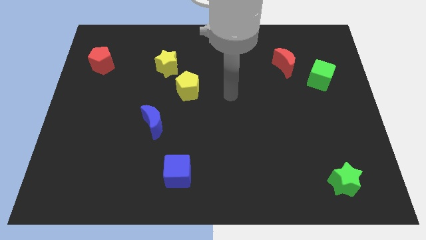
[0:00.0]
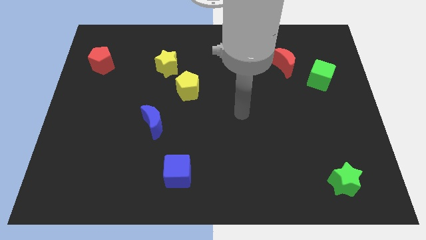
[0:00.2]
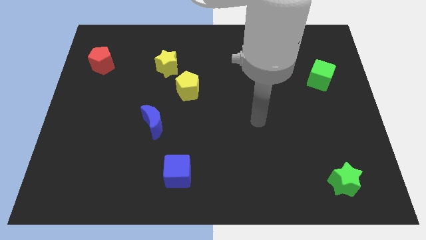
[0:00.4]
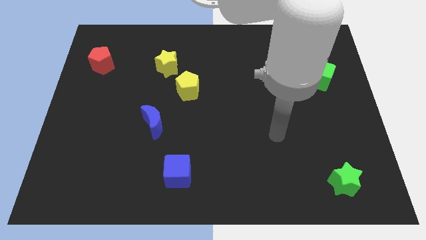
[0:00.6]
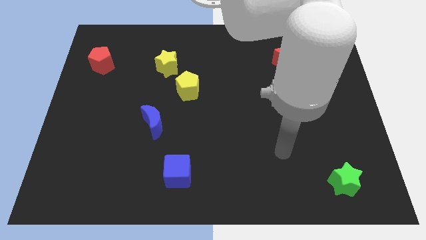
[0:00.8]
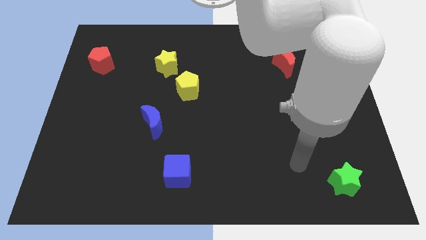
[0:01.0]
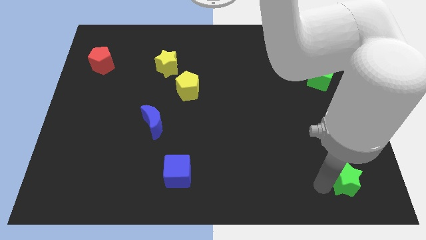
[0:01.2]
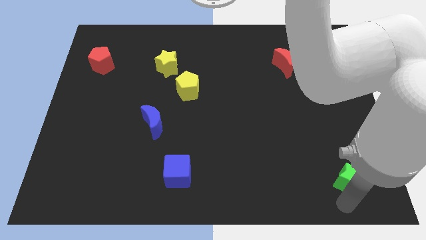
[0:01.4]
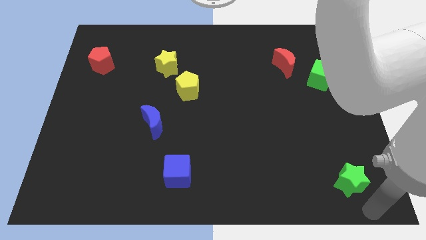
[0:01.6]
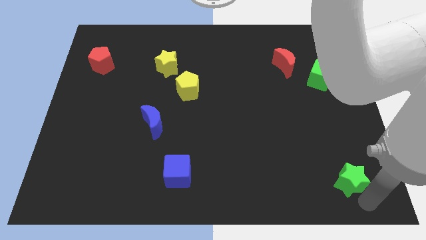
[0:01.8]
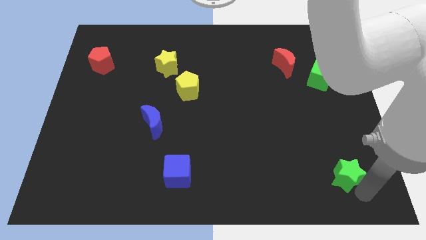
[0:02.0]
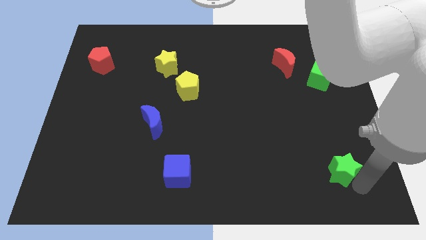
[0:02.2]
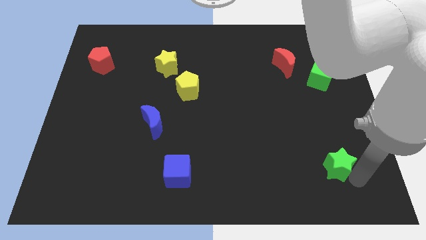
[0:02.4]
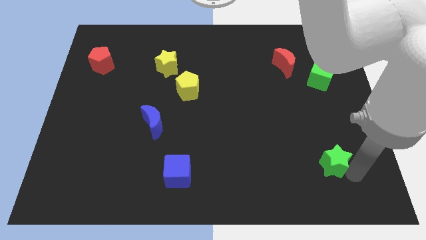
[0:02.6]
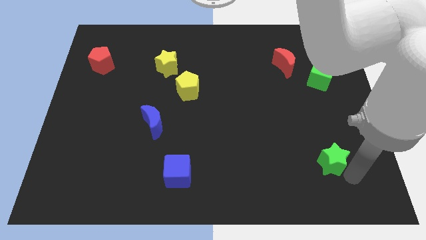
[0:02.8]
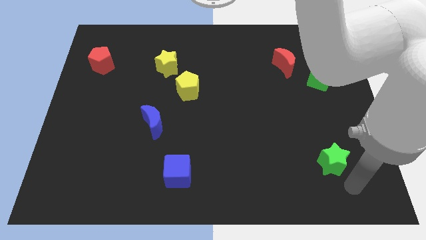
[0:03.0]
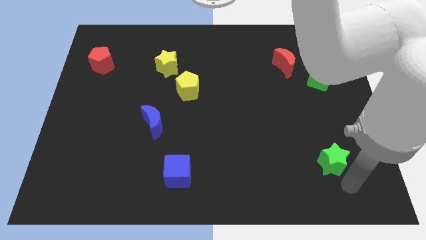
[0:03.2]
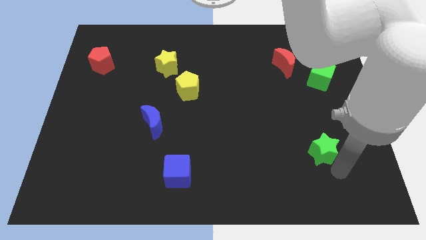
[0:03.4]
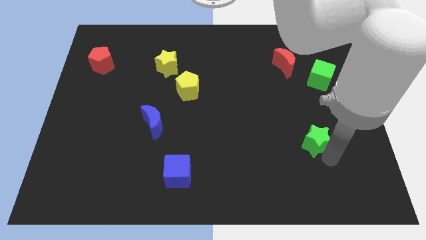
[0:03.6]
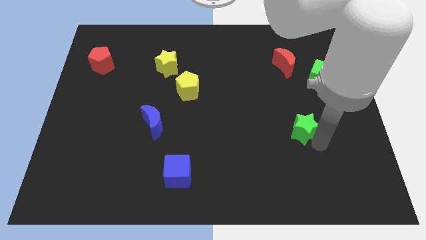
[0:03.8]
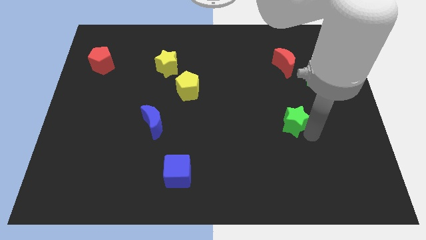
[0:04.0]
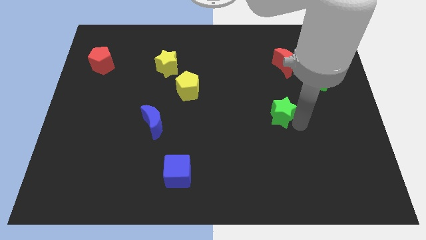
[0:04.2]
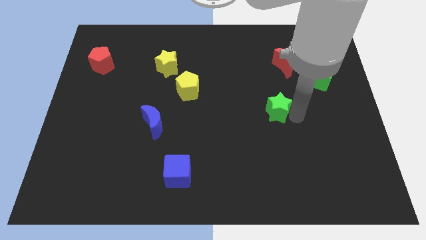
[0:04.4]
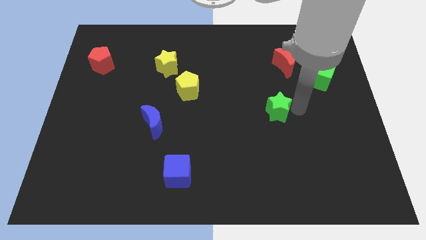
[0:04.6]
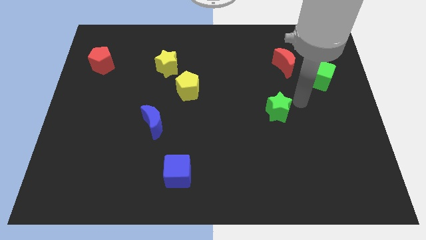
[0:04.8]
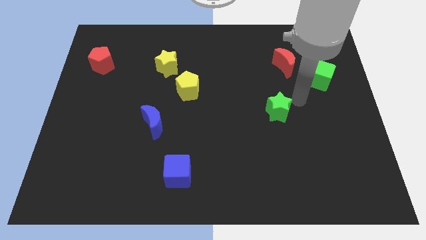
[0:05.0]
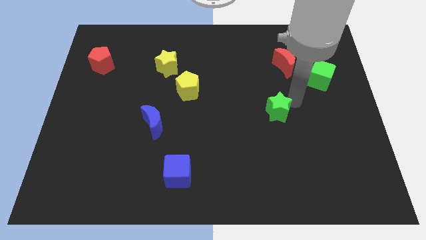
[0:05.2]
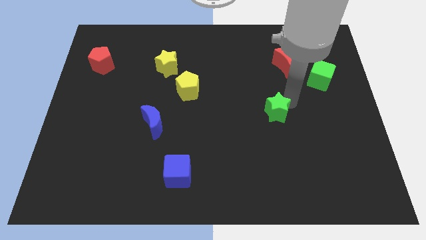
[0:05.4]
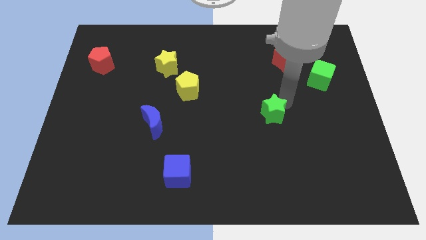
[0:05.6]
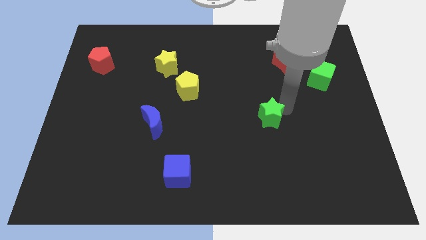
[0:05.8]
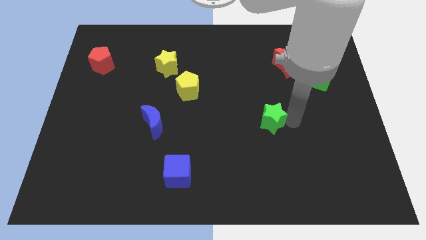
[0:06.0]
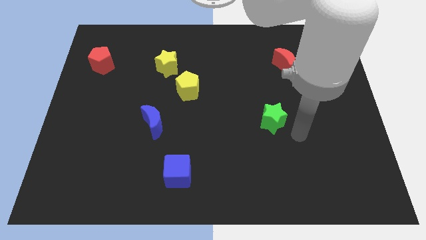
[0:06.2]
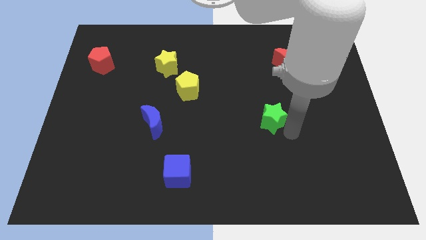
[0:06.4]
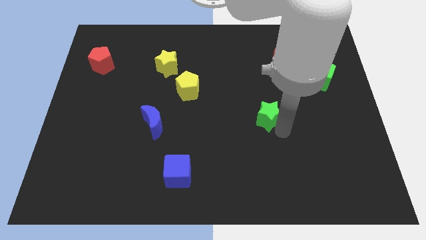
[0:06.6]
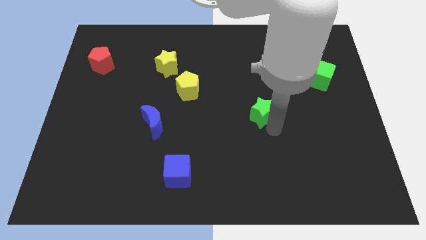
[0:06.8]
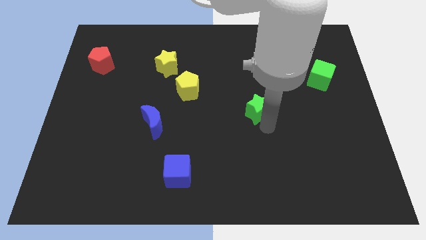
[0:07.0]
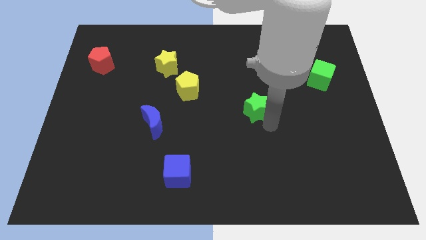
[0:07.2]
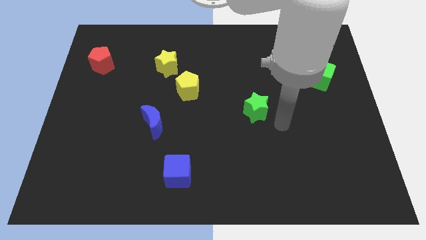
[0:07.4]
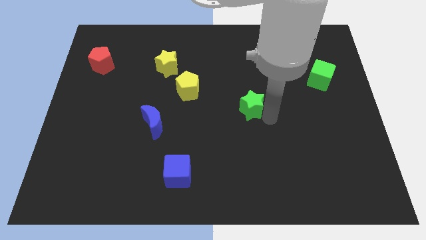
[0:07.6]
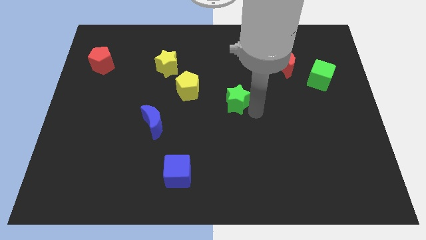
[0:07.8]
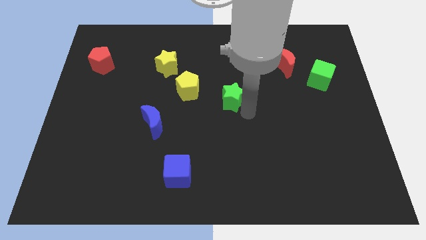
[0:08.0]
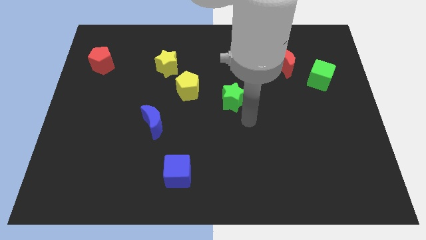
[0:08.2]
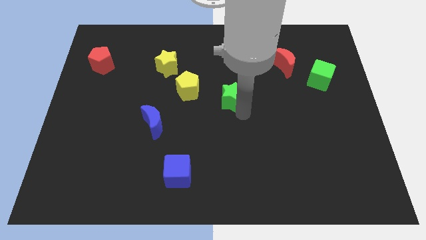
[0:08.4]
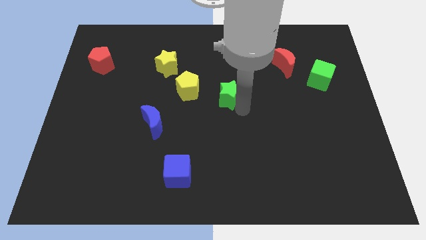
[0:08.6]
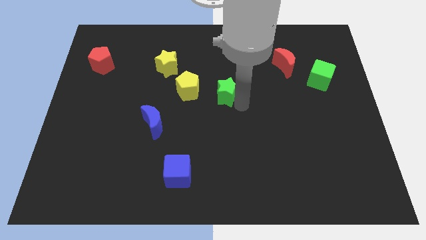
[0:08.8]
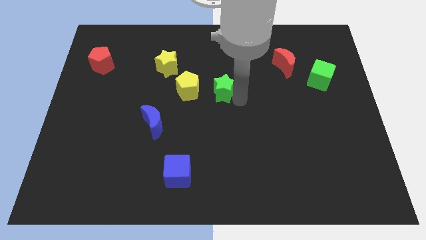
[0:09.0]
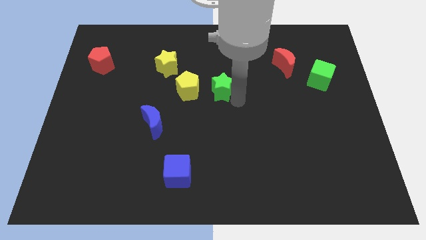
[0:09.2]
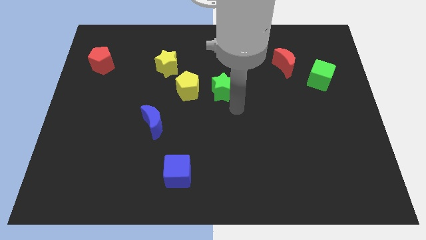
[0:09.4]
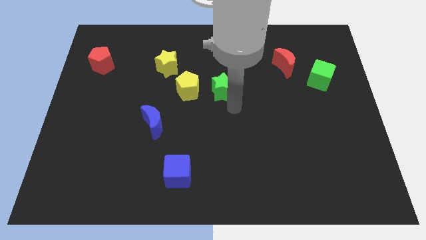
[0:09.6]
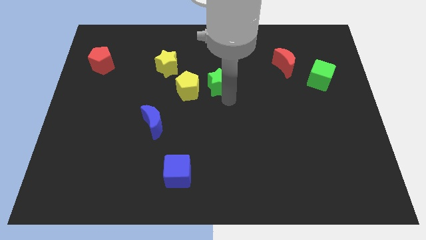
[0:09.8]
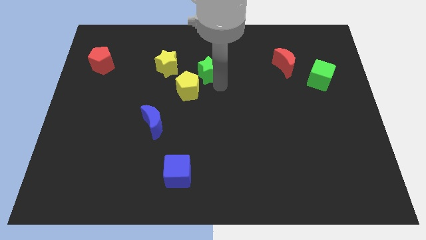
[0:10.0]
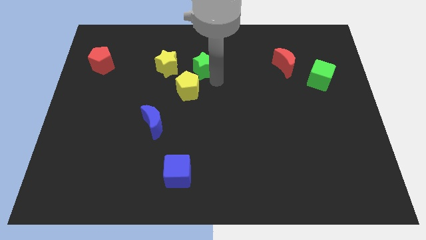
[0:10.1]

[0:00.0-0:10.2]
push the green star to the top of the yellow pentagon

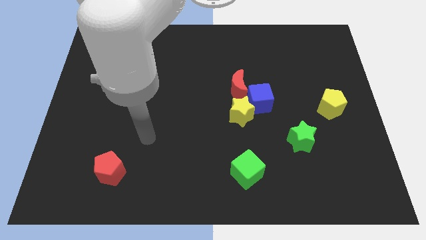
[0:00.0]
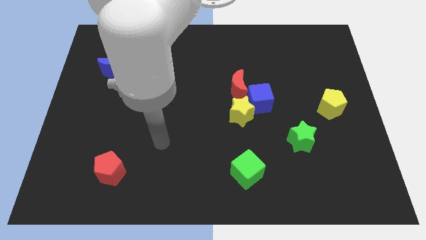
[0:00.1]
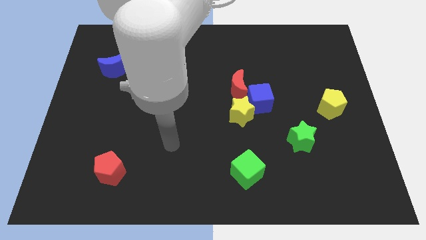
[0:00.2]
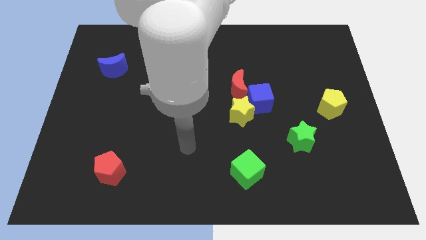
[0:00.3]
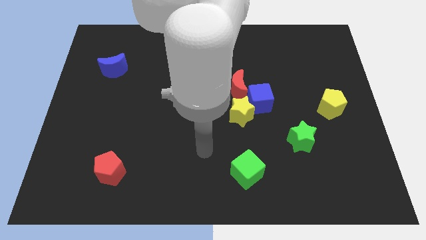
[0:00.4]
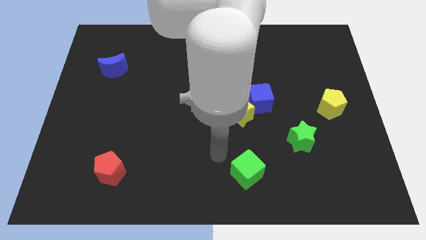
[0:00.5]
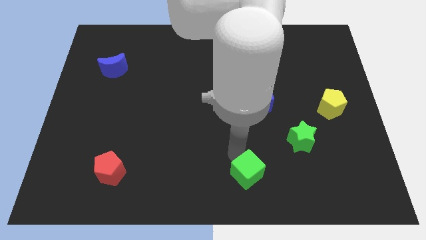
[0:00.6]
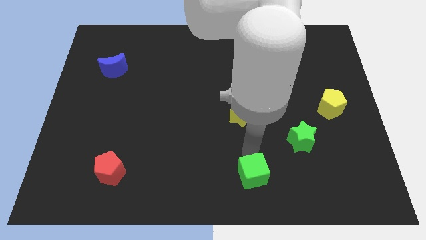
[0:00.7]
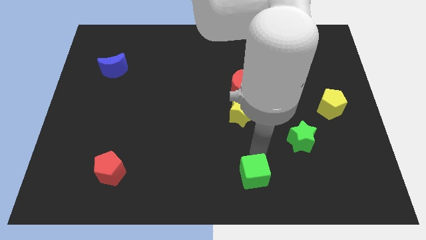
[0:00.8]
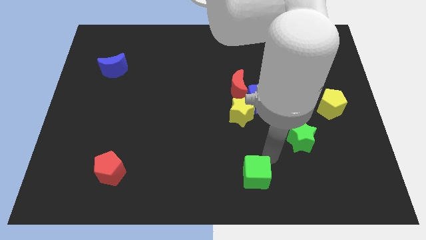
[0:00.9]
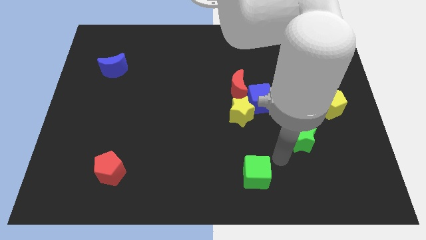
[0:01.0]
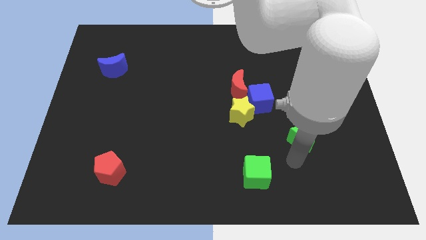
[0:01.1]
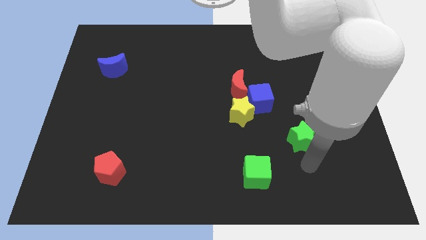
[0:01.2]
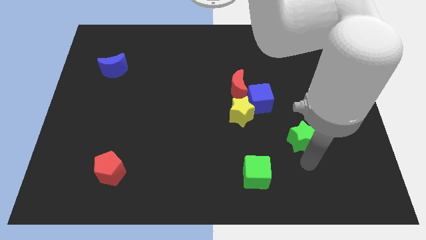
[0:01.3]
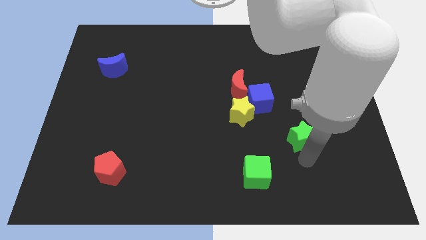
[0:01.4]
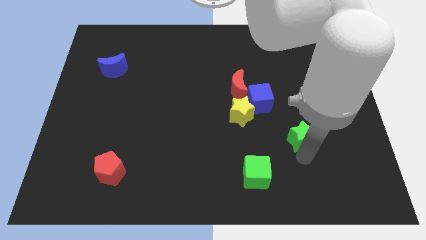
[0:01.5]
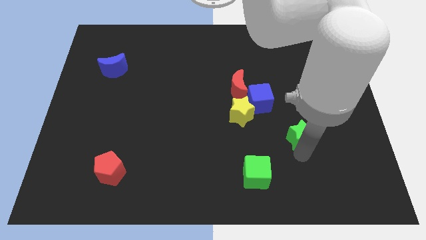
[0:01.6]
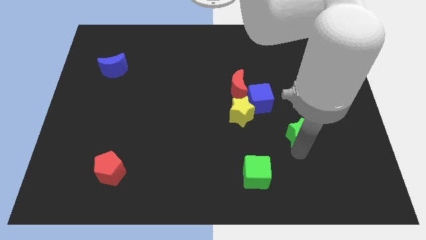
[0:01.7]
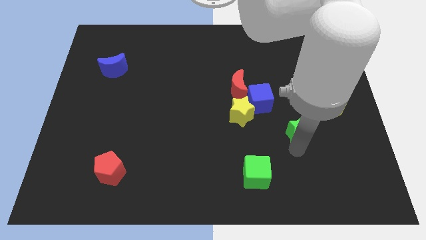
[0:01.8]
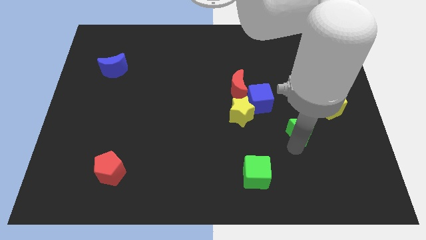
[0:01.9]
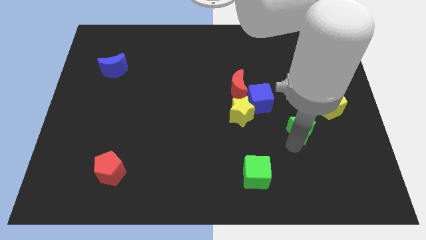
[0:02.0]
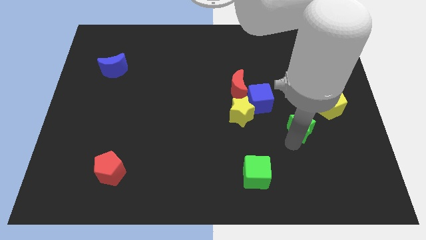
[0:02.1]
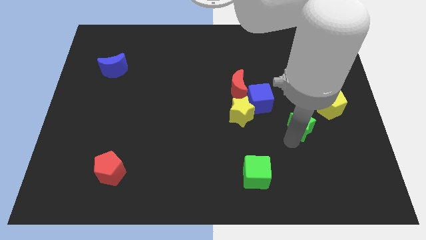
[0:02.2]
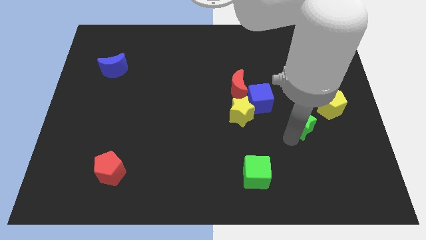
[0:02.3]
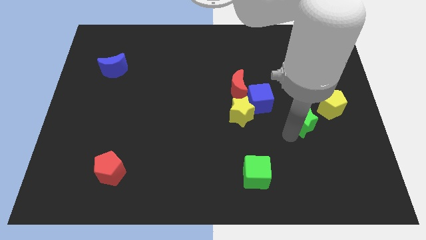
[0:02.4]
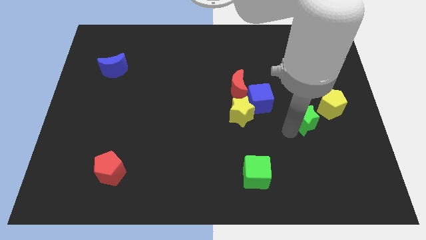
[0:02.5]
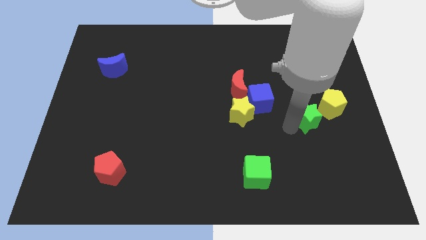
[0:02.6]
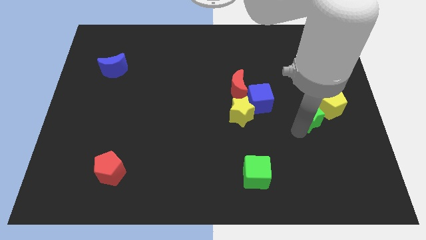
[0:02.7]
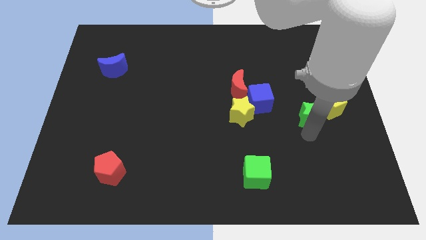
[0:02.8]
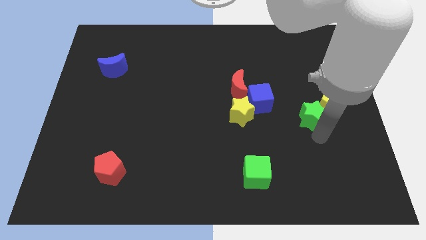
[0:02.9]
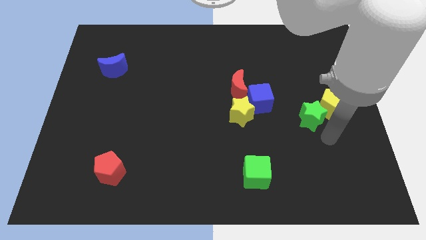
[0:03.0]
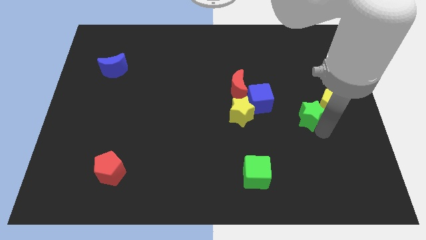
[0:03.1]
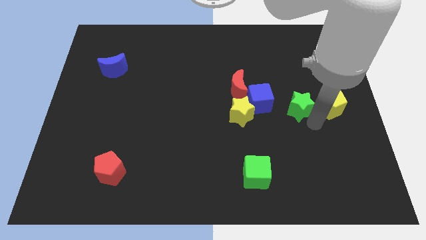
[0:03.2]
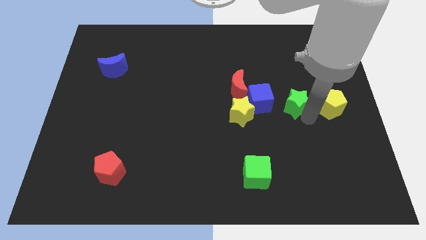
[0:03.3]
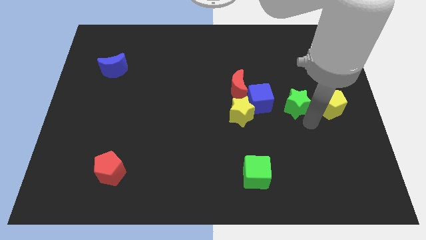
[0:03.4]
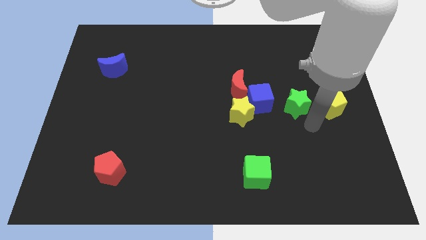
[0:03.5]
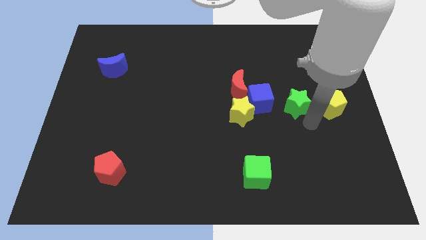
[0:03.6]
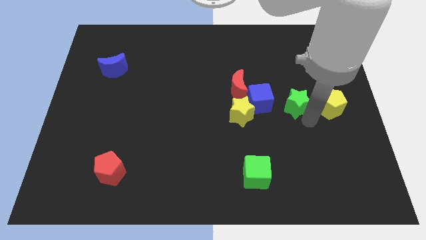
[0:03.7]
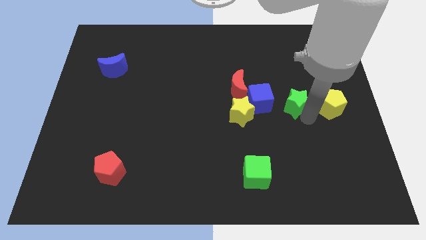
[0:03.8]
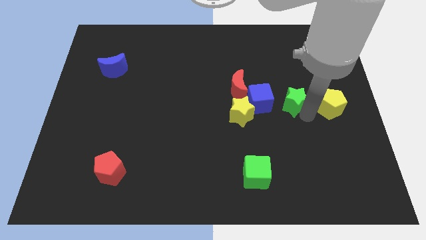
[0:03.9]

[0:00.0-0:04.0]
put the green star right of the red moon
